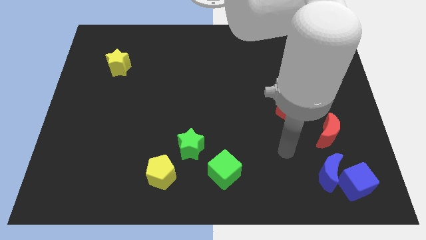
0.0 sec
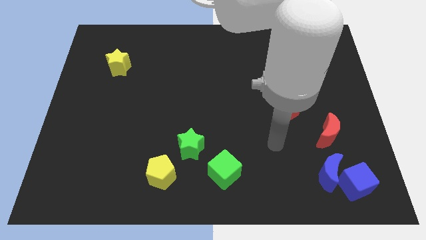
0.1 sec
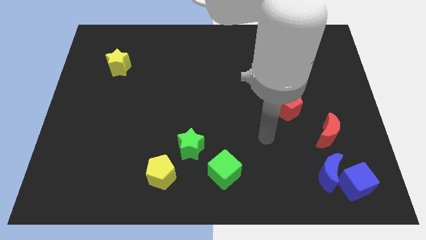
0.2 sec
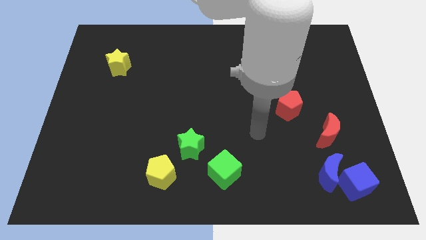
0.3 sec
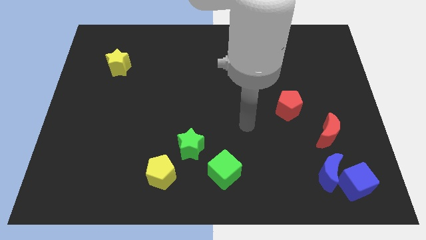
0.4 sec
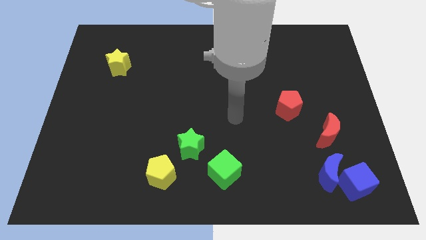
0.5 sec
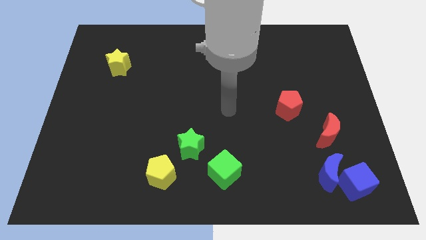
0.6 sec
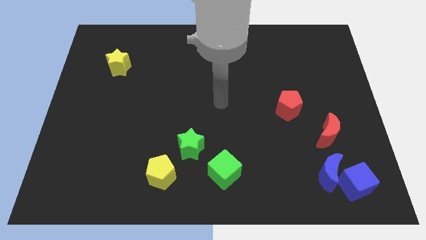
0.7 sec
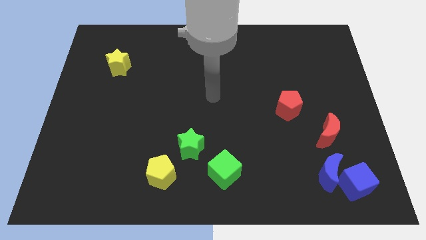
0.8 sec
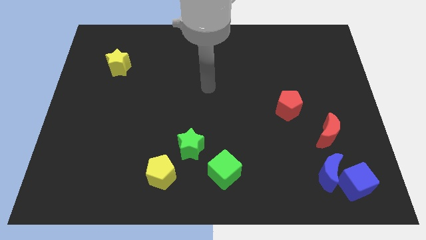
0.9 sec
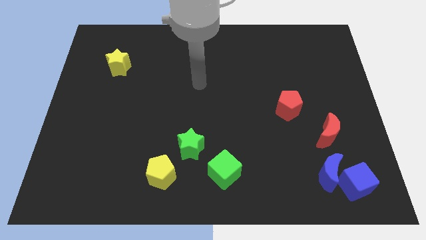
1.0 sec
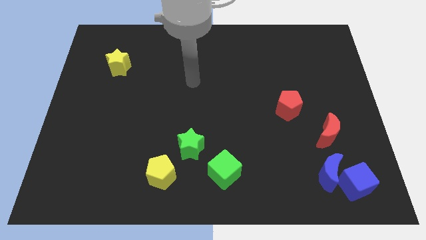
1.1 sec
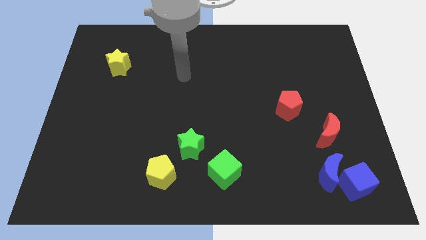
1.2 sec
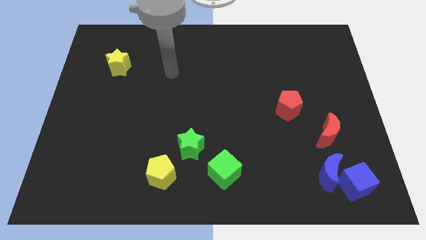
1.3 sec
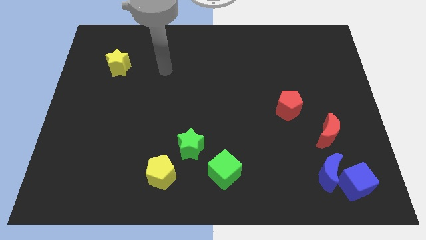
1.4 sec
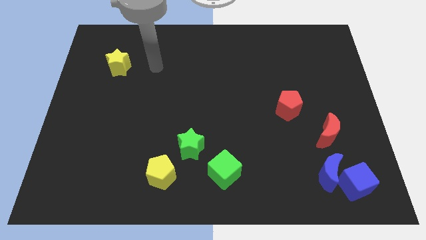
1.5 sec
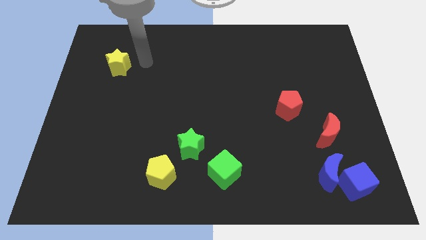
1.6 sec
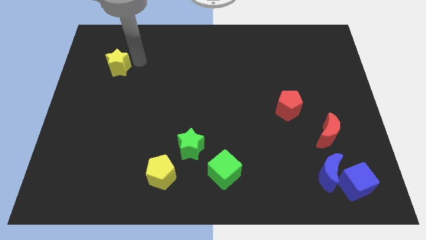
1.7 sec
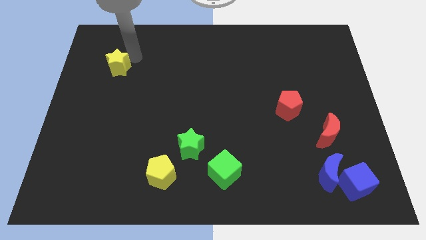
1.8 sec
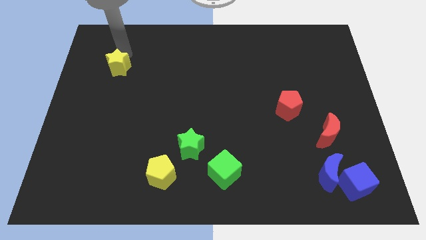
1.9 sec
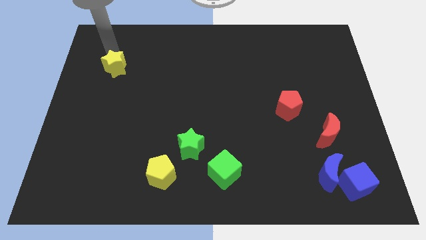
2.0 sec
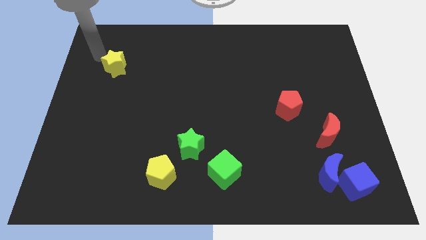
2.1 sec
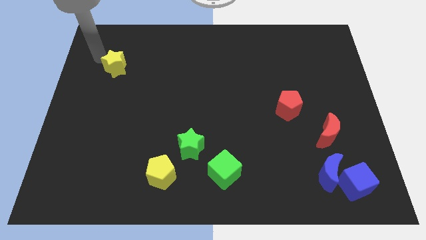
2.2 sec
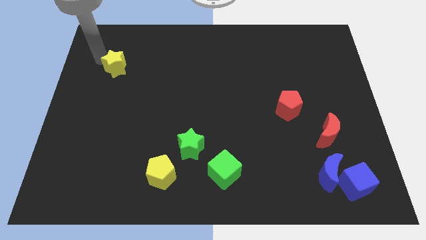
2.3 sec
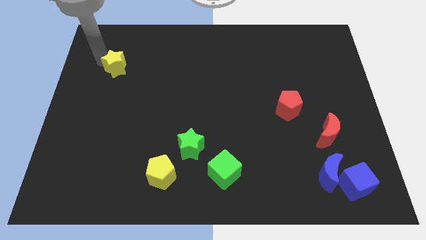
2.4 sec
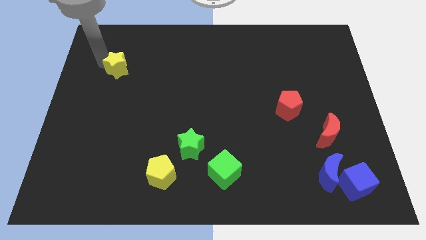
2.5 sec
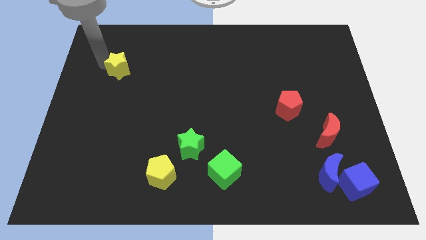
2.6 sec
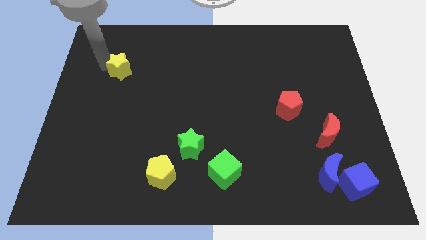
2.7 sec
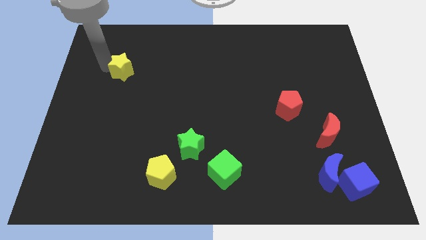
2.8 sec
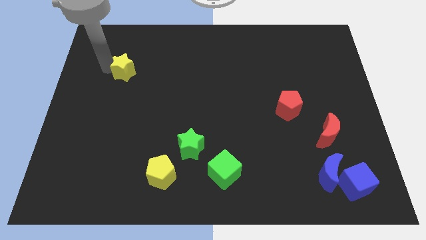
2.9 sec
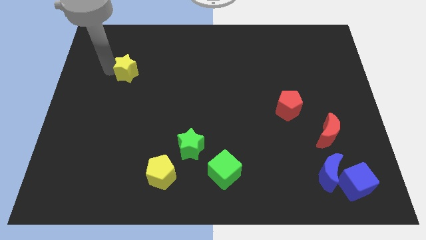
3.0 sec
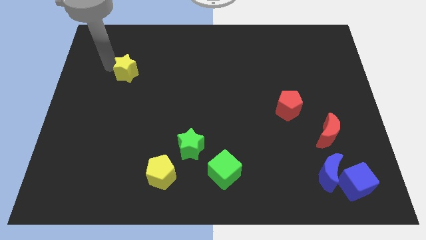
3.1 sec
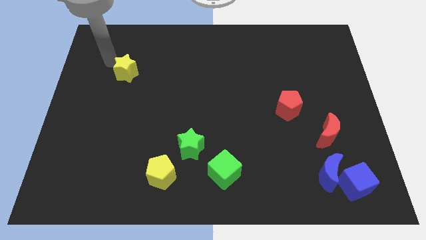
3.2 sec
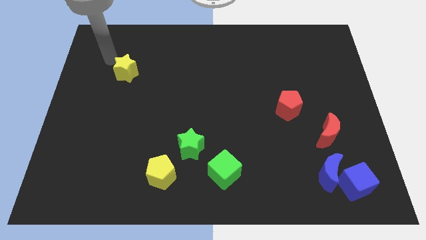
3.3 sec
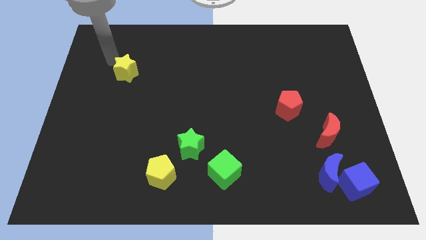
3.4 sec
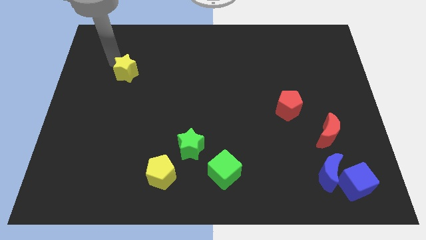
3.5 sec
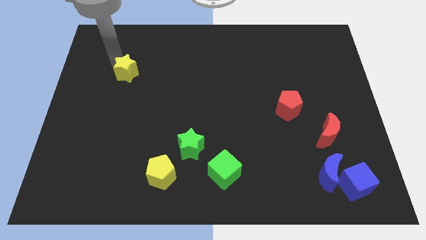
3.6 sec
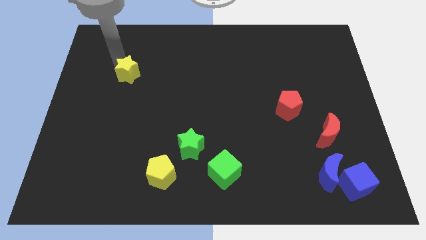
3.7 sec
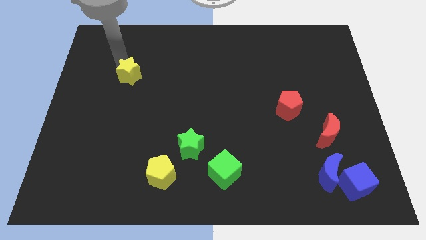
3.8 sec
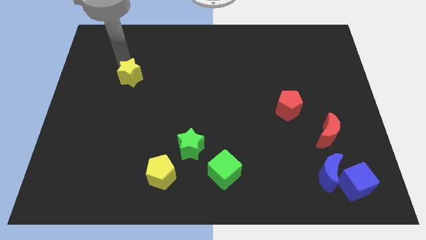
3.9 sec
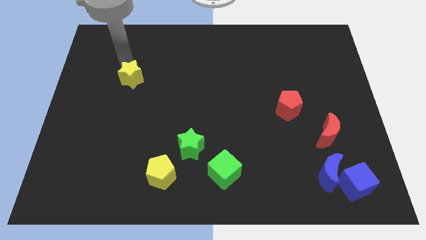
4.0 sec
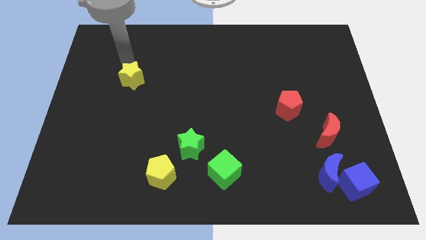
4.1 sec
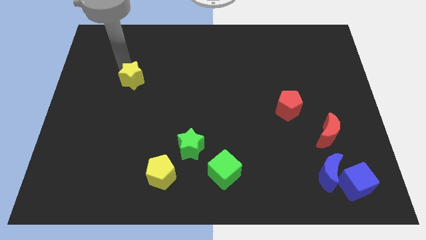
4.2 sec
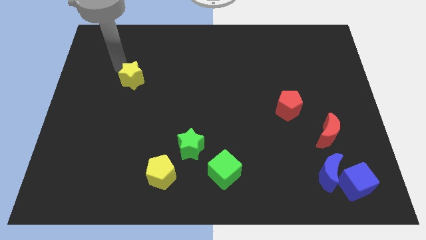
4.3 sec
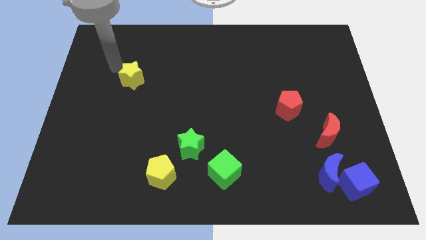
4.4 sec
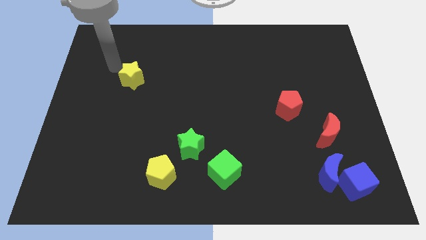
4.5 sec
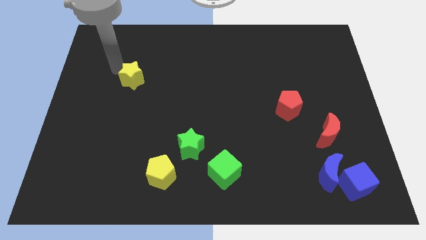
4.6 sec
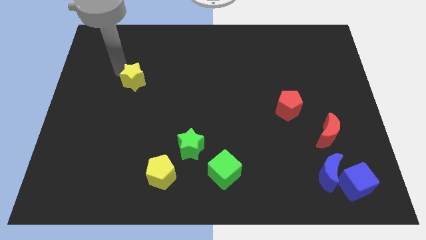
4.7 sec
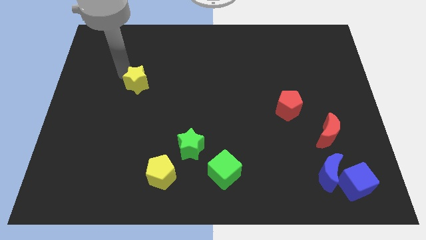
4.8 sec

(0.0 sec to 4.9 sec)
slightly slide the yellow star diagonally downwards and right

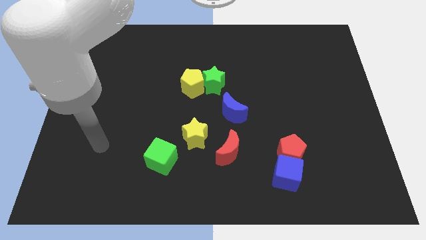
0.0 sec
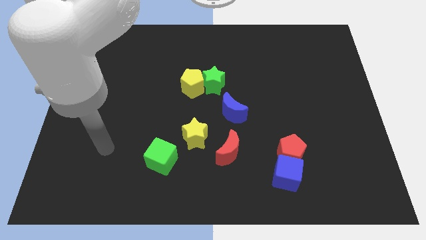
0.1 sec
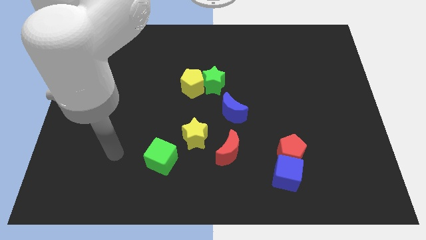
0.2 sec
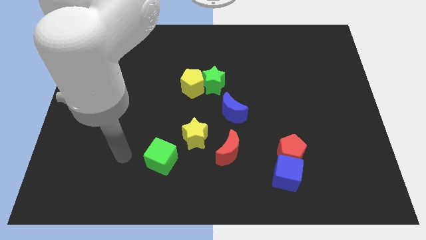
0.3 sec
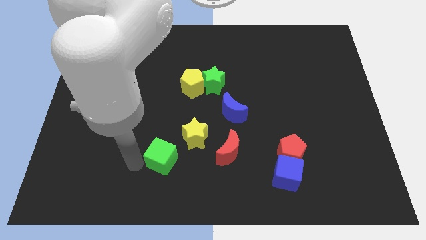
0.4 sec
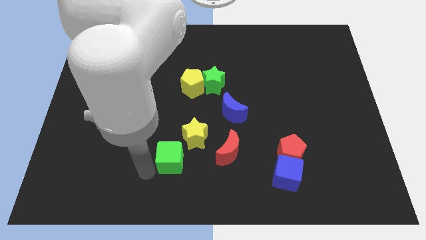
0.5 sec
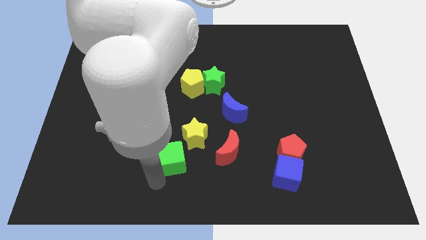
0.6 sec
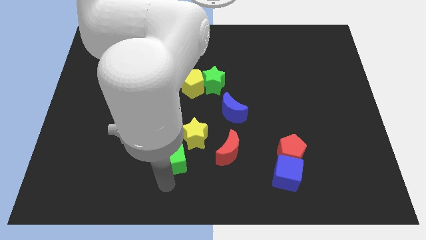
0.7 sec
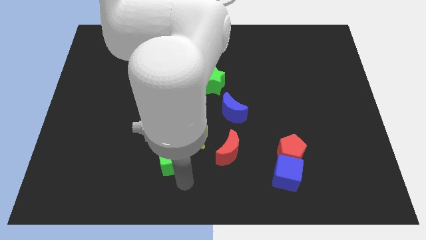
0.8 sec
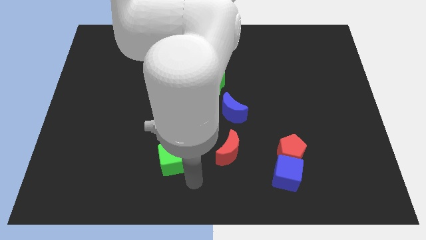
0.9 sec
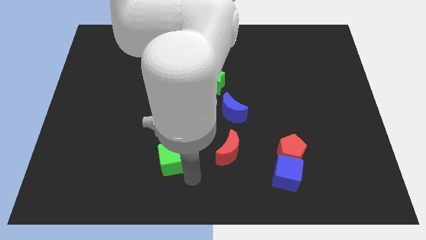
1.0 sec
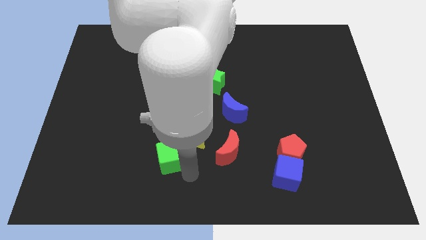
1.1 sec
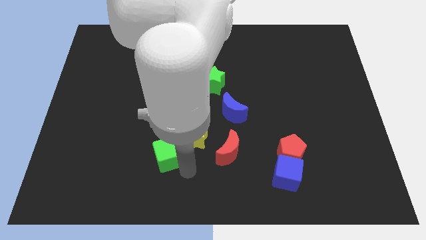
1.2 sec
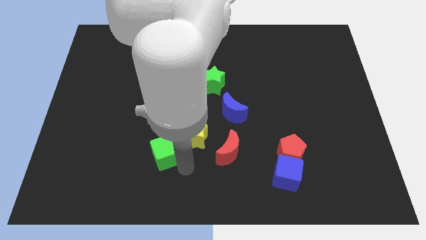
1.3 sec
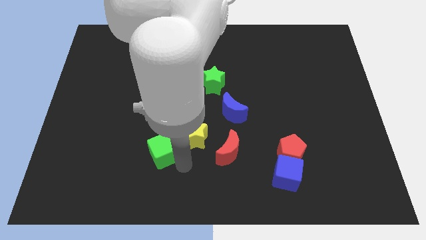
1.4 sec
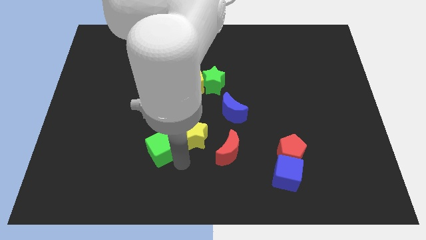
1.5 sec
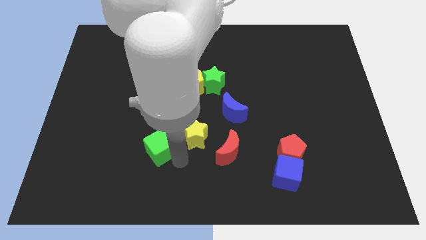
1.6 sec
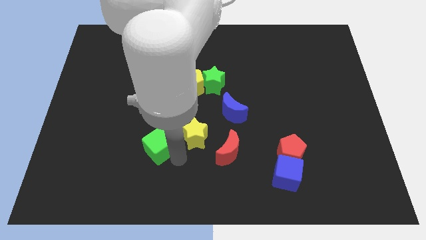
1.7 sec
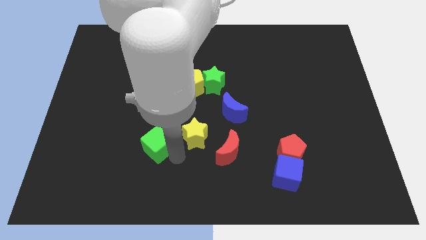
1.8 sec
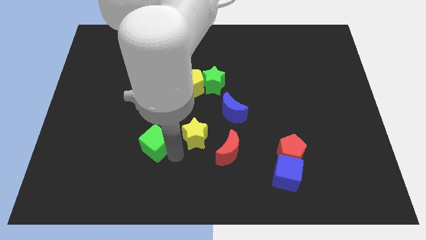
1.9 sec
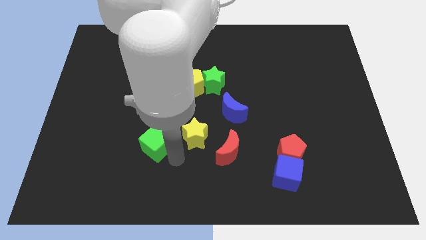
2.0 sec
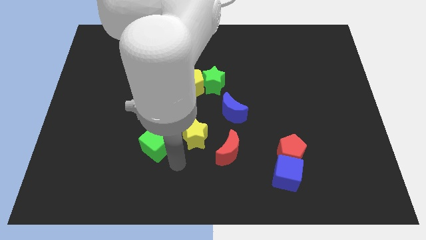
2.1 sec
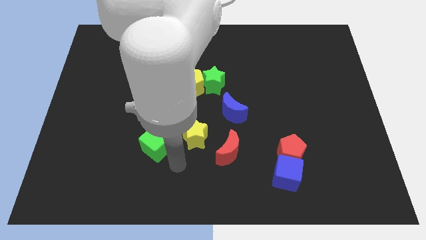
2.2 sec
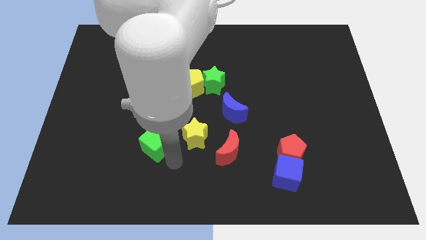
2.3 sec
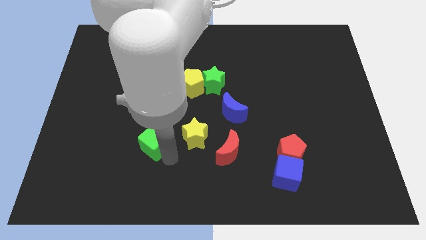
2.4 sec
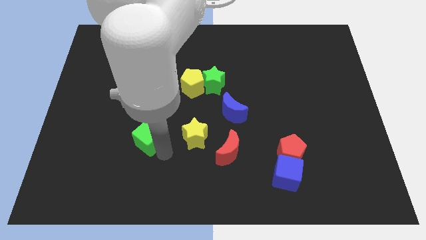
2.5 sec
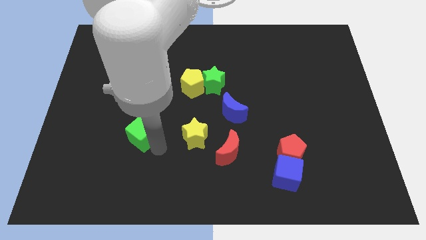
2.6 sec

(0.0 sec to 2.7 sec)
push the green cube upwards and to the left diagonally a little bit

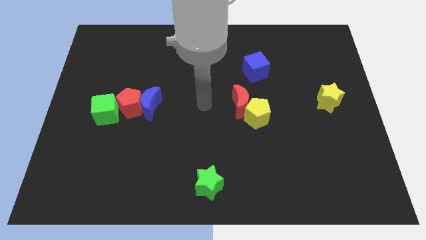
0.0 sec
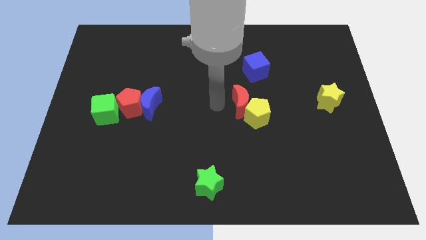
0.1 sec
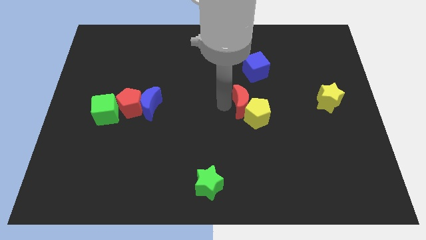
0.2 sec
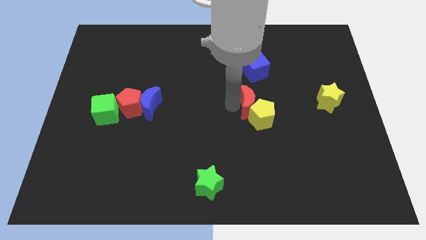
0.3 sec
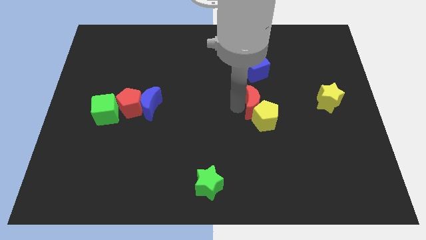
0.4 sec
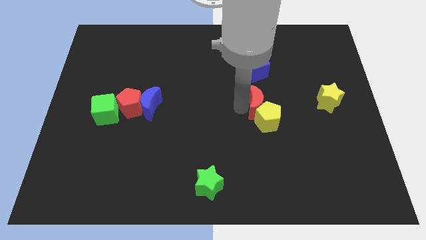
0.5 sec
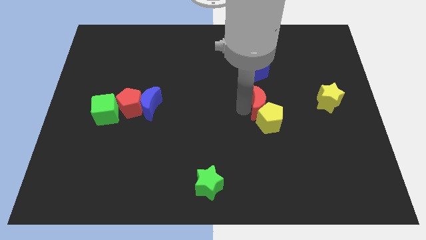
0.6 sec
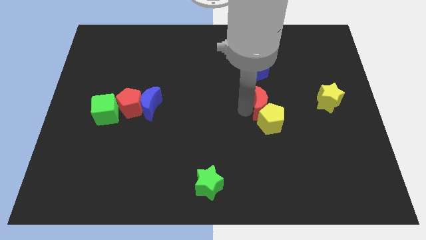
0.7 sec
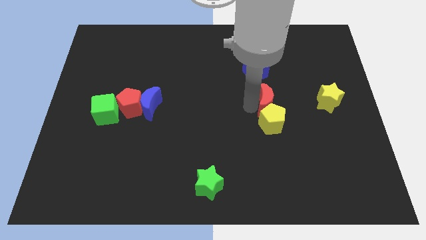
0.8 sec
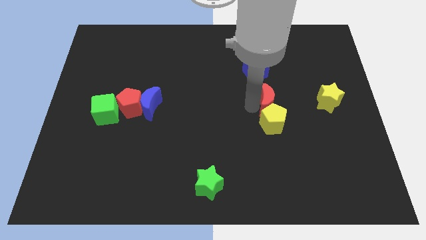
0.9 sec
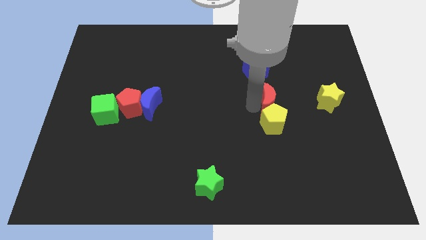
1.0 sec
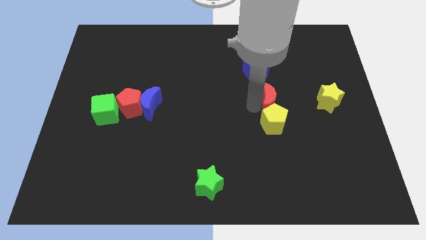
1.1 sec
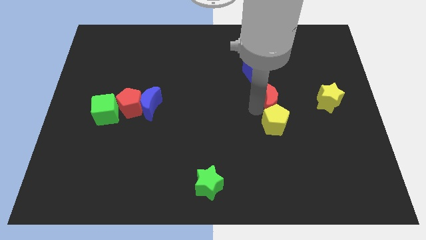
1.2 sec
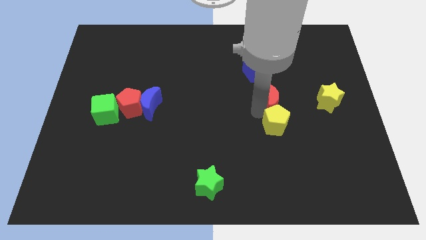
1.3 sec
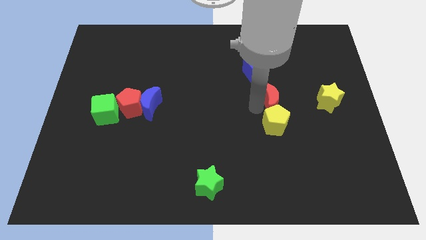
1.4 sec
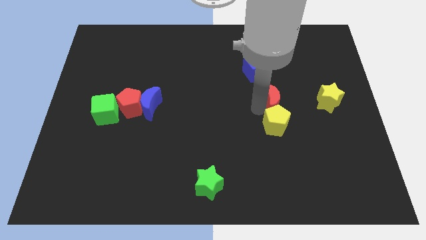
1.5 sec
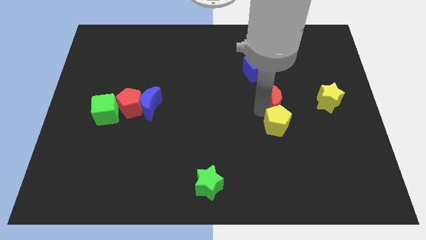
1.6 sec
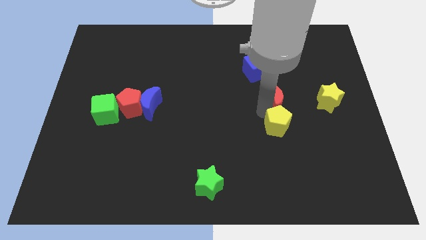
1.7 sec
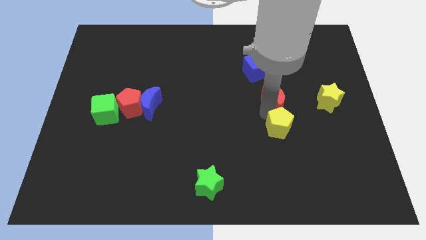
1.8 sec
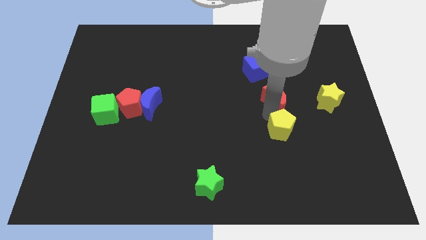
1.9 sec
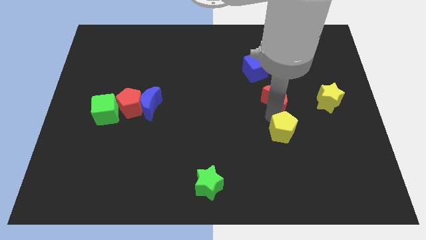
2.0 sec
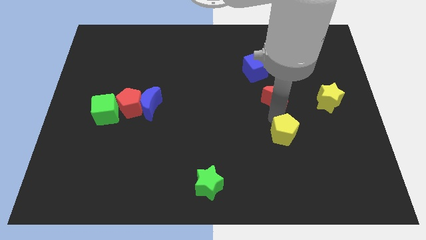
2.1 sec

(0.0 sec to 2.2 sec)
push the yellow pentagon down and to the right slightly
